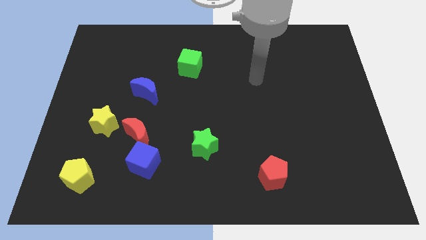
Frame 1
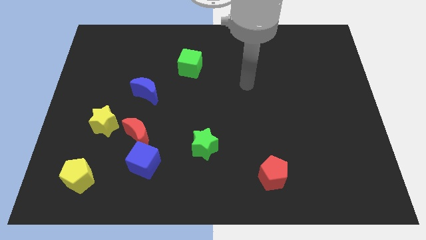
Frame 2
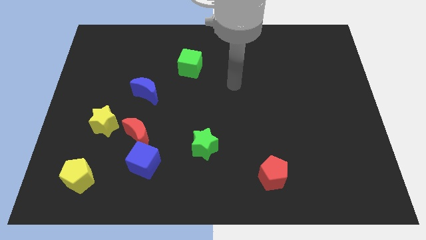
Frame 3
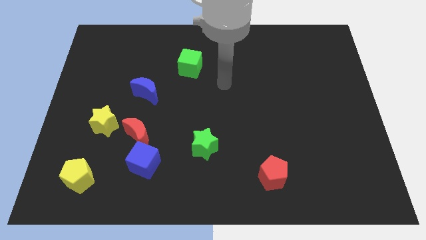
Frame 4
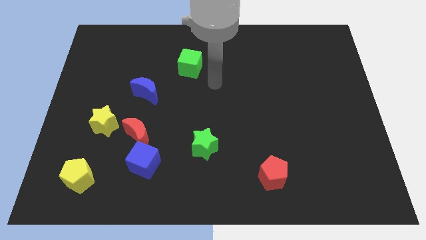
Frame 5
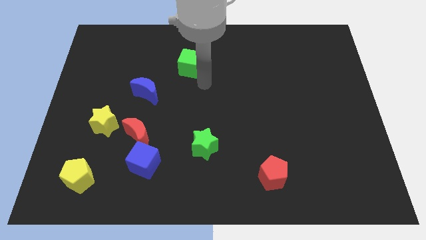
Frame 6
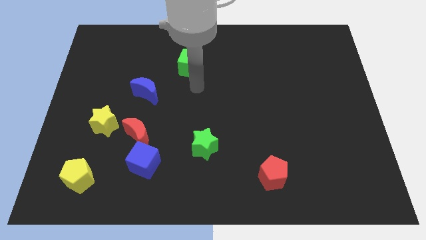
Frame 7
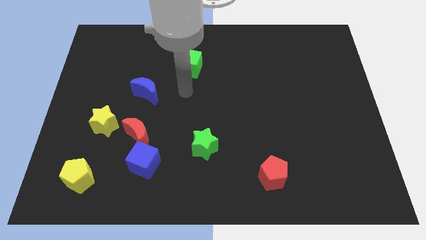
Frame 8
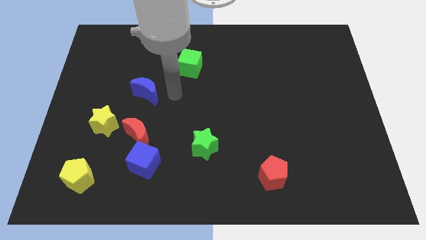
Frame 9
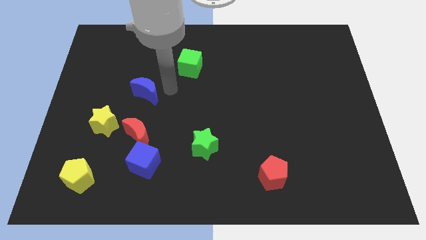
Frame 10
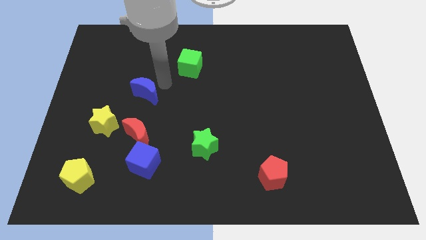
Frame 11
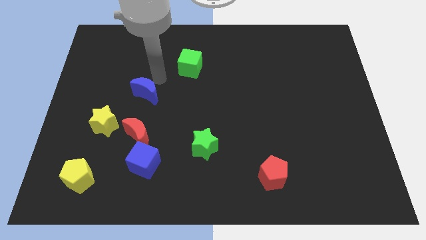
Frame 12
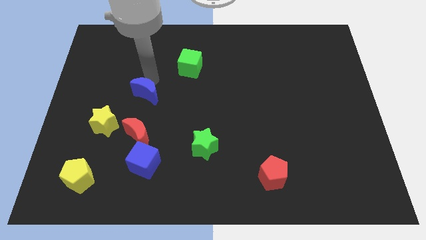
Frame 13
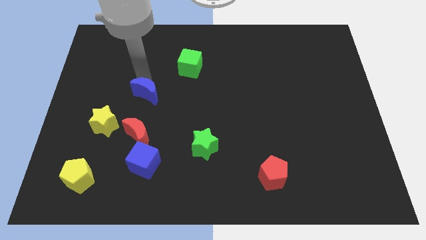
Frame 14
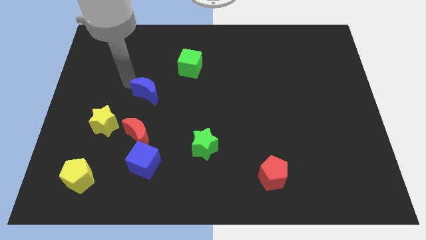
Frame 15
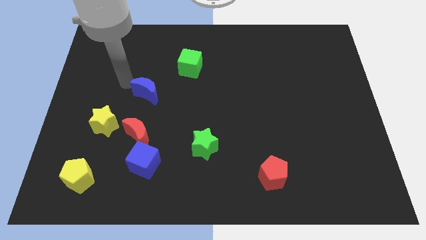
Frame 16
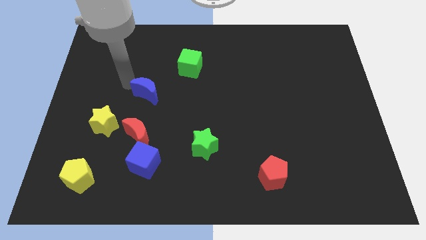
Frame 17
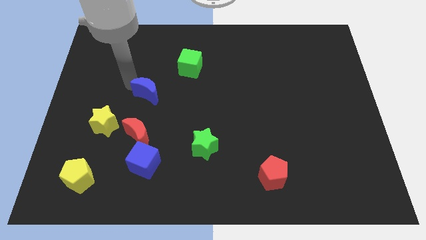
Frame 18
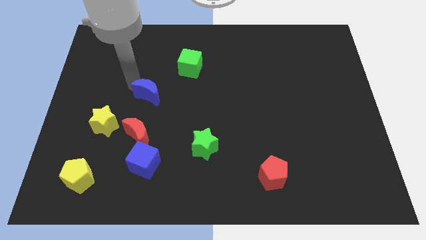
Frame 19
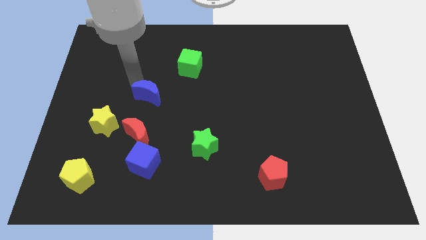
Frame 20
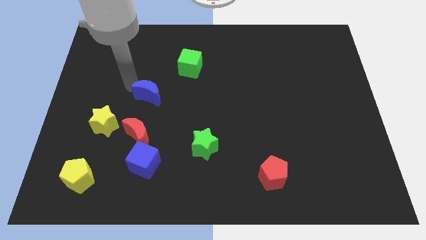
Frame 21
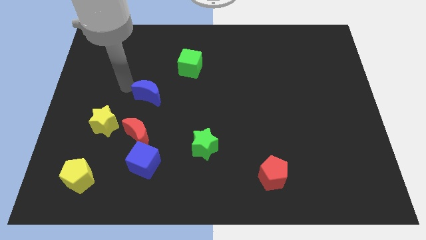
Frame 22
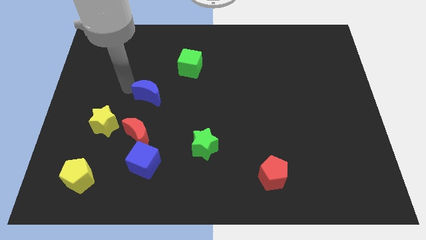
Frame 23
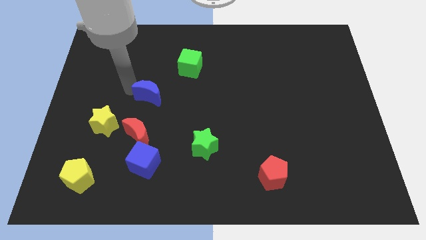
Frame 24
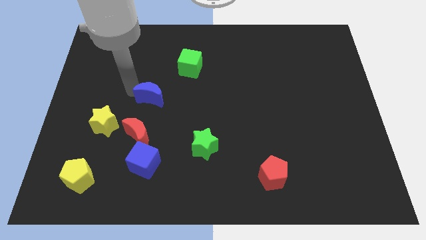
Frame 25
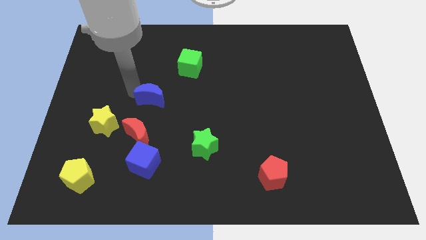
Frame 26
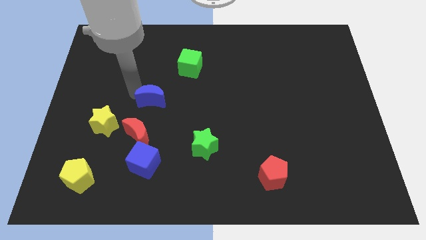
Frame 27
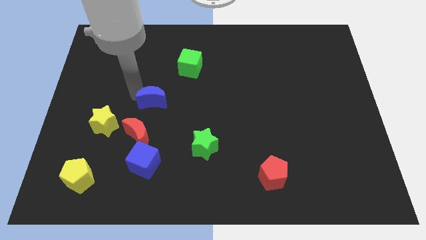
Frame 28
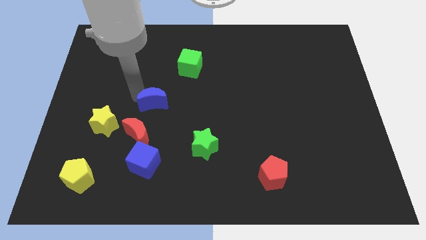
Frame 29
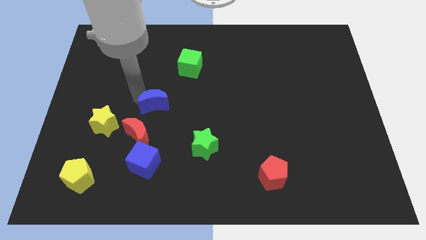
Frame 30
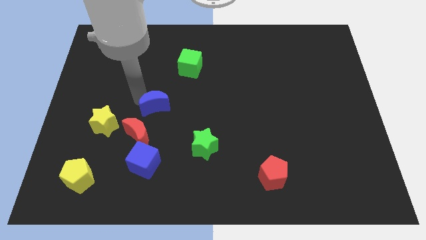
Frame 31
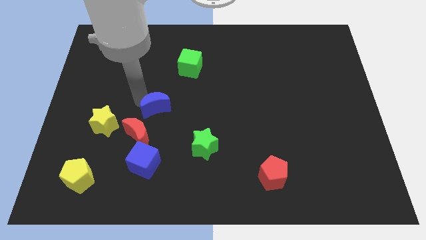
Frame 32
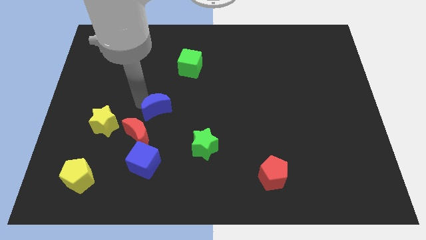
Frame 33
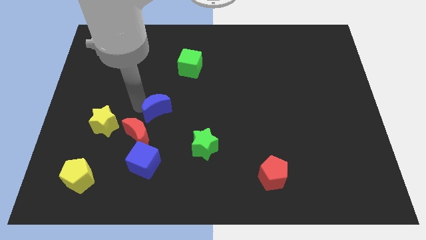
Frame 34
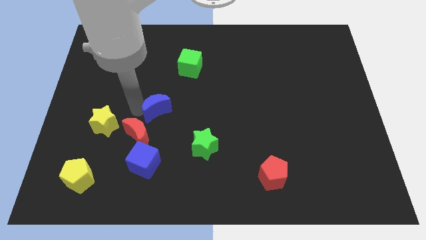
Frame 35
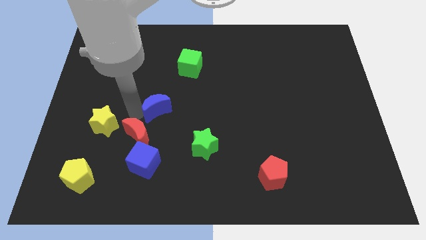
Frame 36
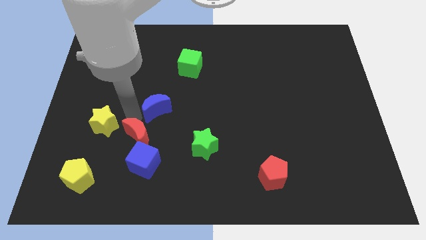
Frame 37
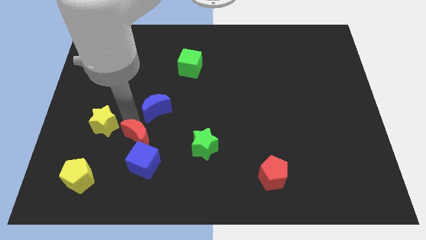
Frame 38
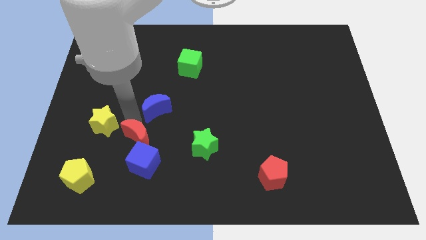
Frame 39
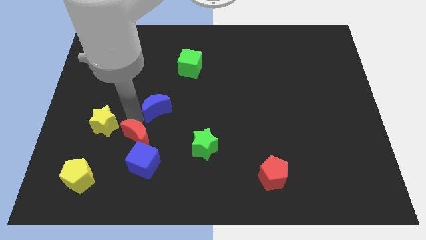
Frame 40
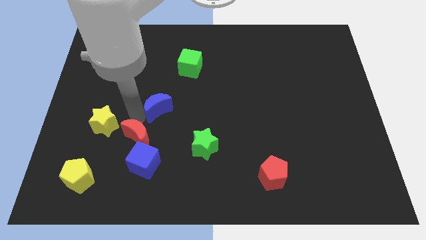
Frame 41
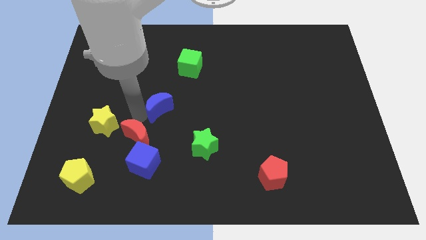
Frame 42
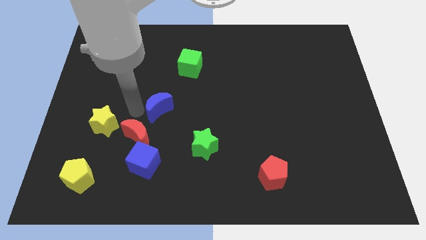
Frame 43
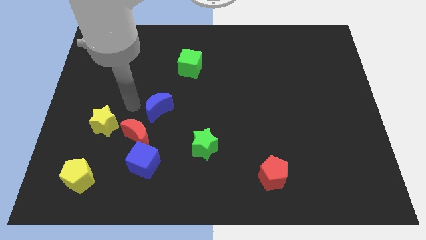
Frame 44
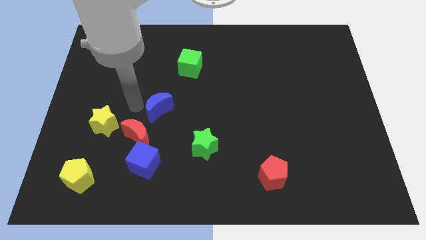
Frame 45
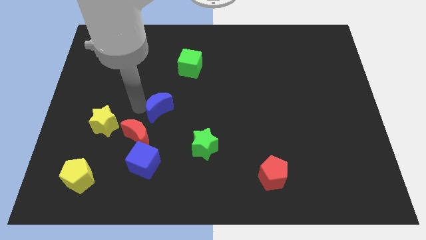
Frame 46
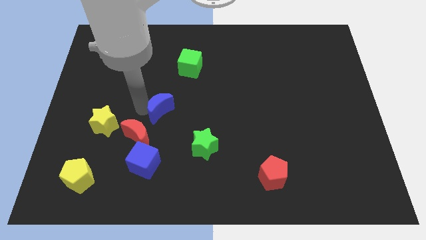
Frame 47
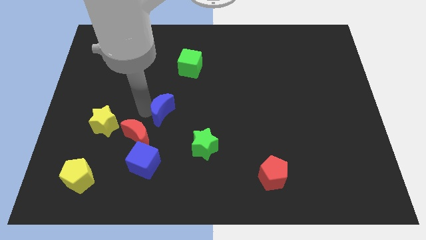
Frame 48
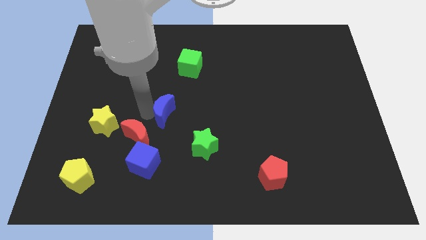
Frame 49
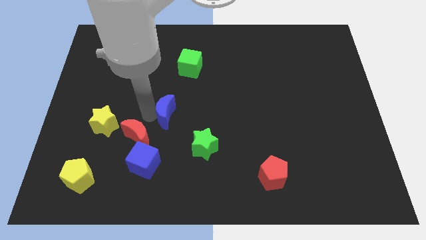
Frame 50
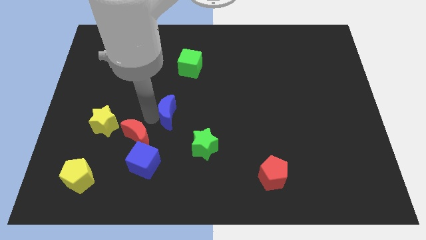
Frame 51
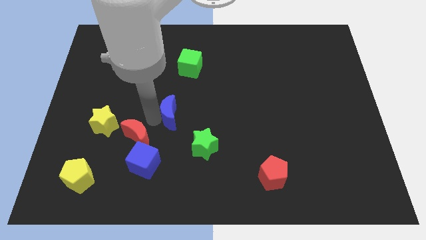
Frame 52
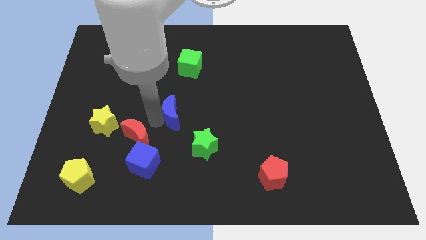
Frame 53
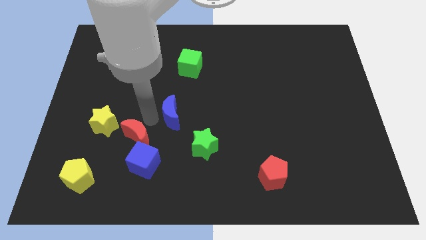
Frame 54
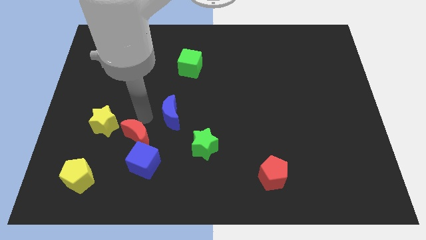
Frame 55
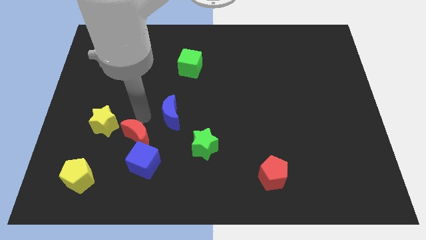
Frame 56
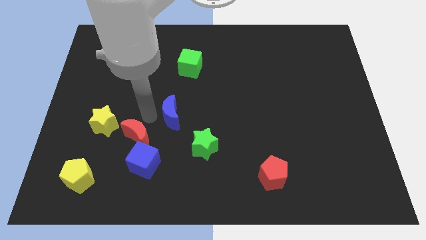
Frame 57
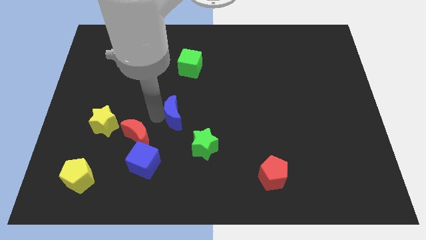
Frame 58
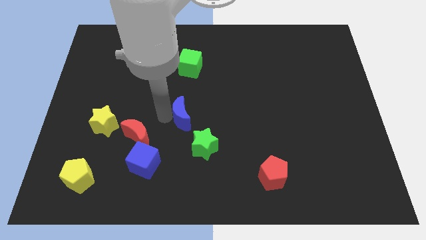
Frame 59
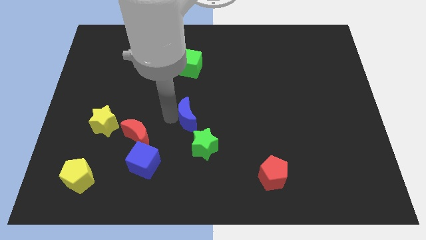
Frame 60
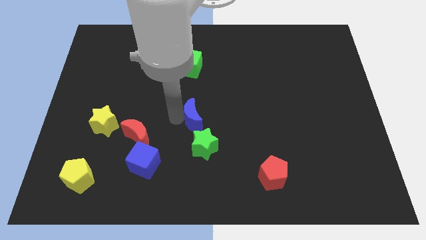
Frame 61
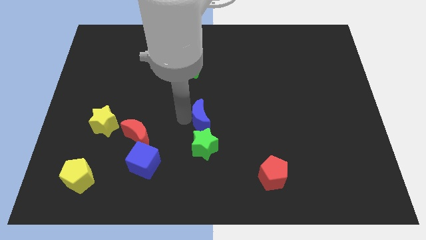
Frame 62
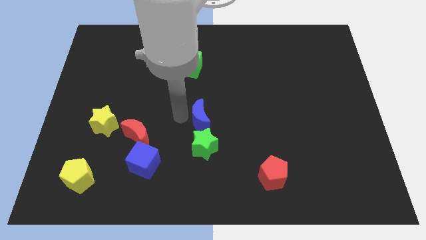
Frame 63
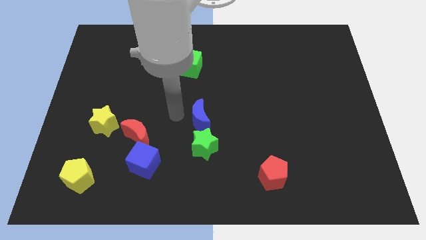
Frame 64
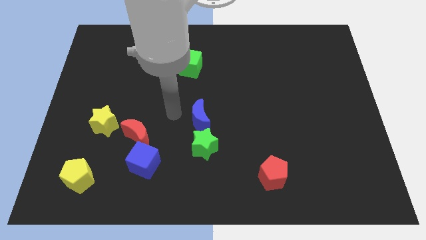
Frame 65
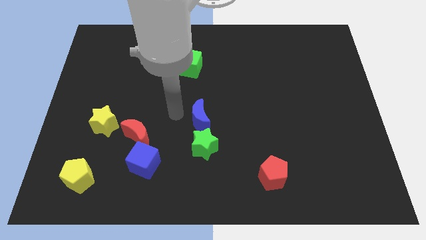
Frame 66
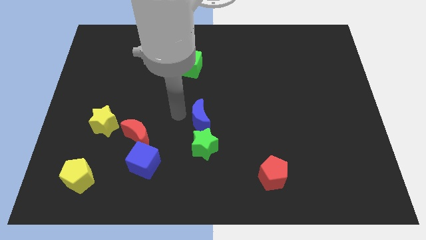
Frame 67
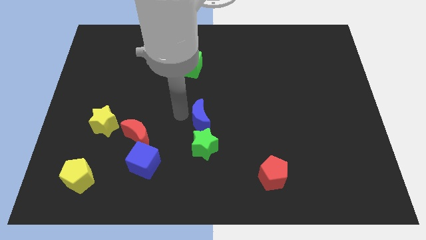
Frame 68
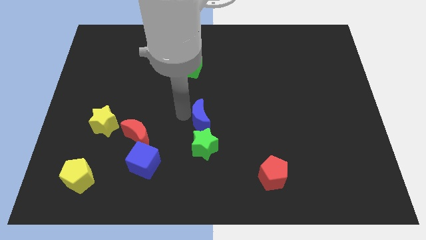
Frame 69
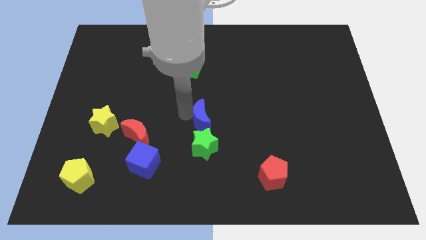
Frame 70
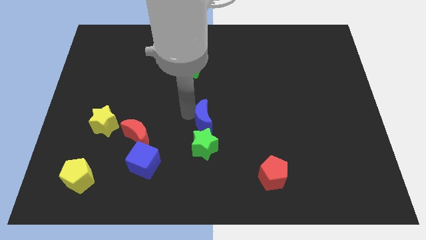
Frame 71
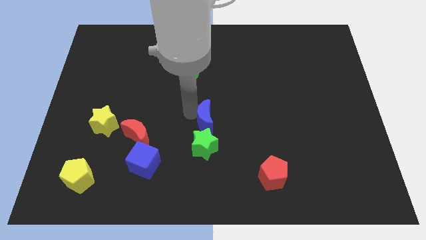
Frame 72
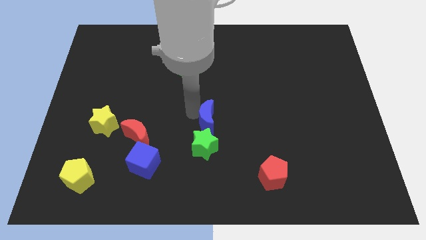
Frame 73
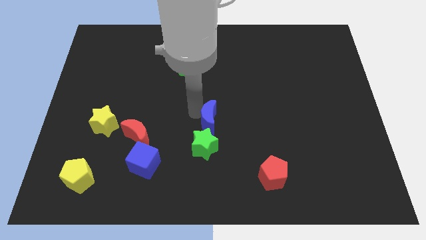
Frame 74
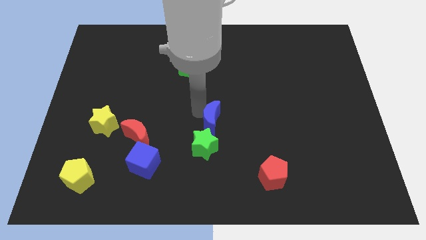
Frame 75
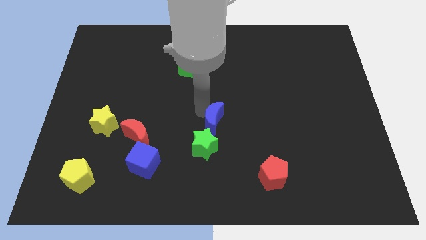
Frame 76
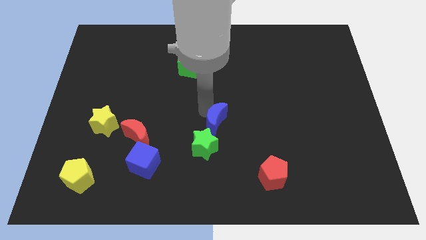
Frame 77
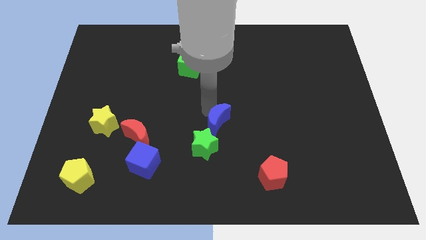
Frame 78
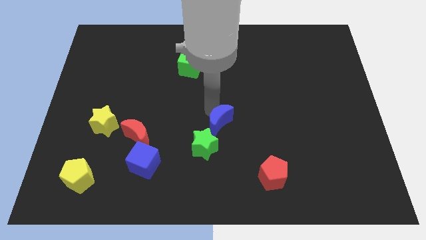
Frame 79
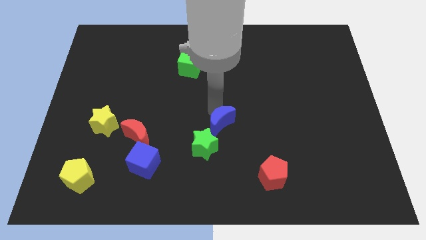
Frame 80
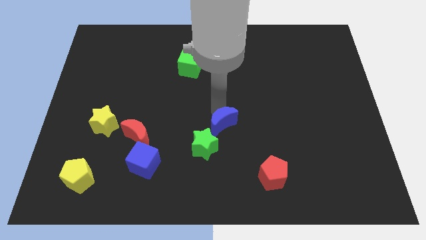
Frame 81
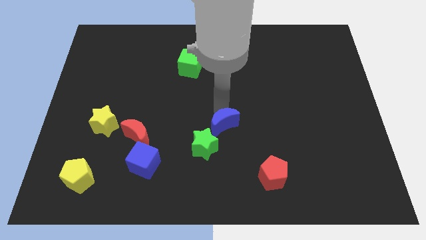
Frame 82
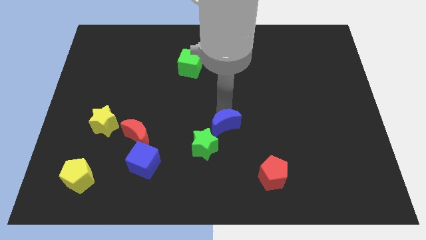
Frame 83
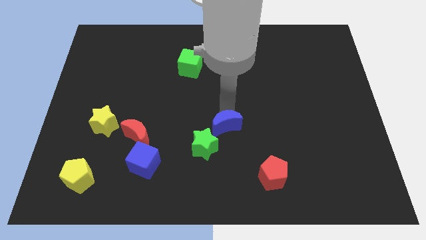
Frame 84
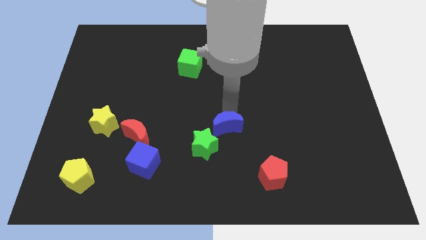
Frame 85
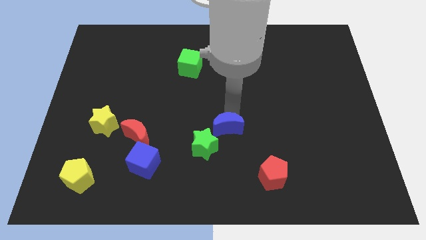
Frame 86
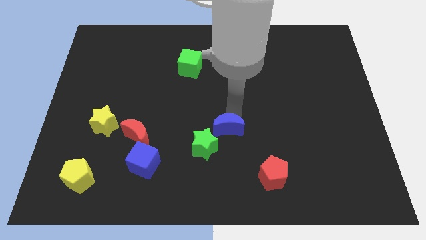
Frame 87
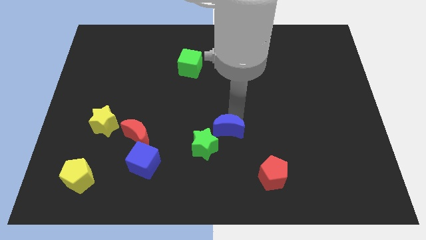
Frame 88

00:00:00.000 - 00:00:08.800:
push the blue moon diagonally down and to the right
